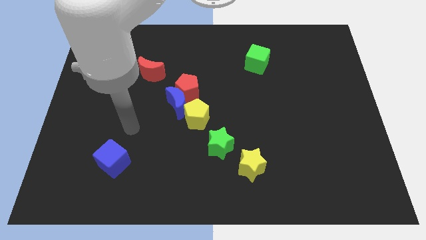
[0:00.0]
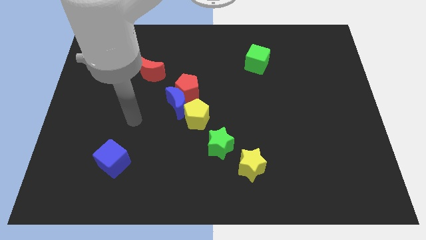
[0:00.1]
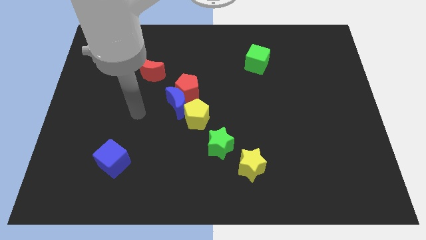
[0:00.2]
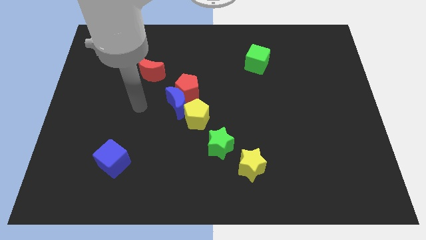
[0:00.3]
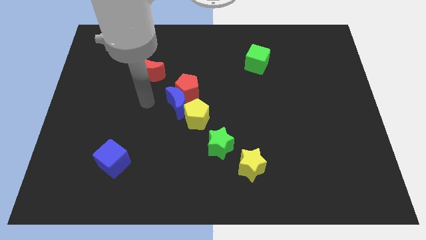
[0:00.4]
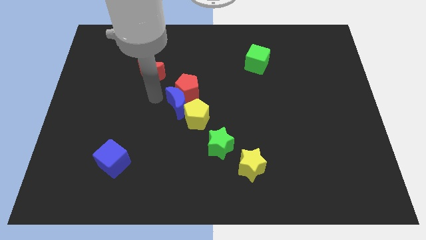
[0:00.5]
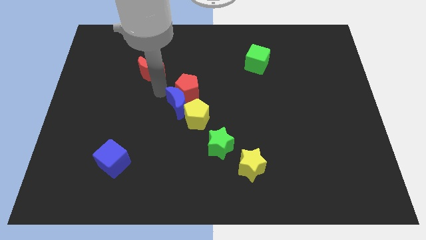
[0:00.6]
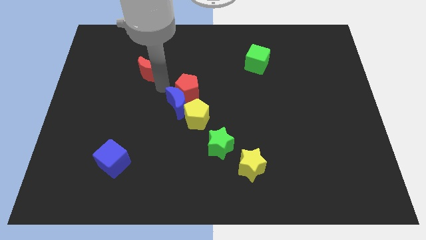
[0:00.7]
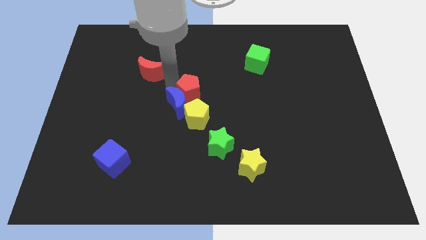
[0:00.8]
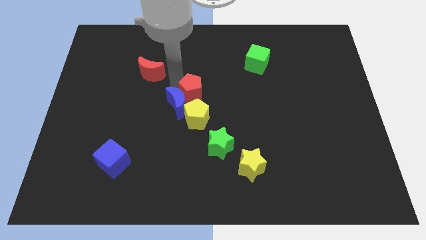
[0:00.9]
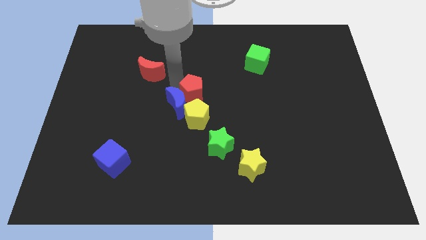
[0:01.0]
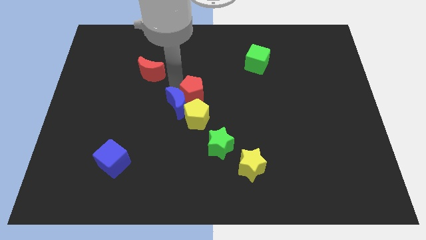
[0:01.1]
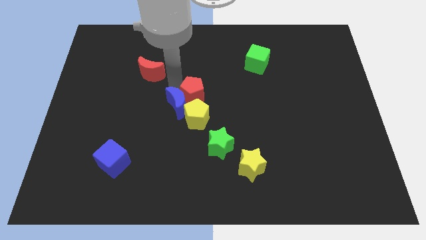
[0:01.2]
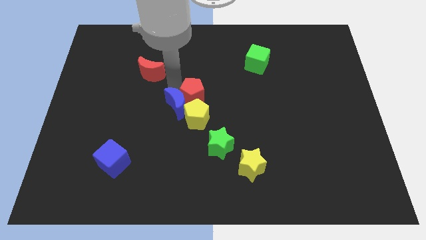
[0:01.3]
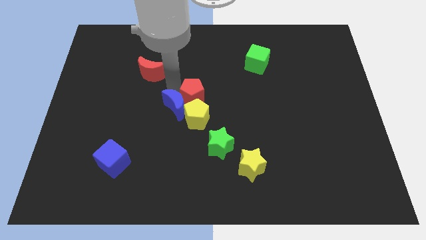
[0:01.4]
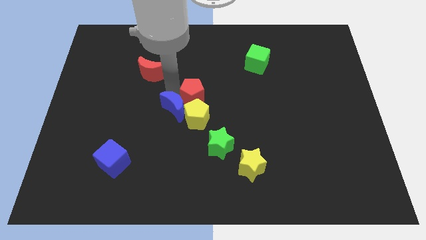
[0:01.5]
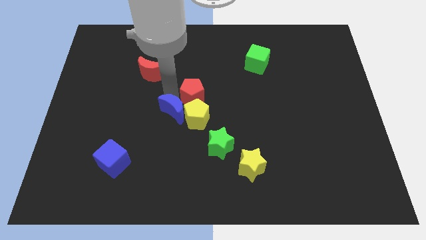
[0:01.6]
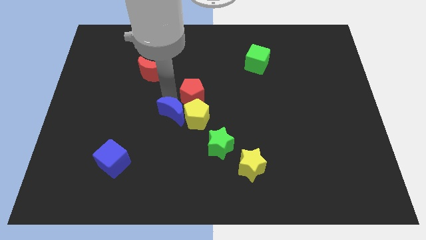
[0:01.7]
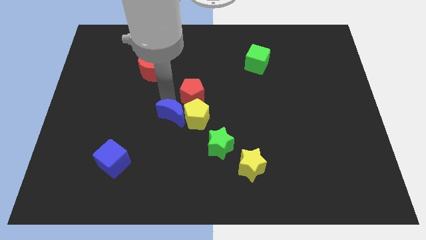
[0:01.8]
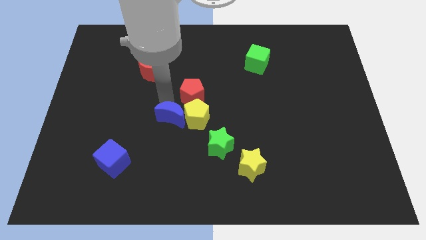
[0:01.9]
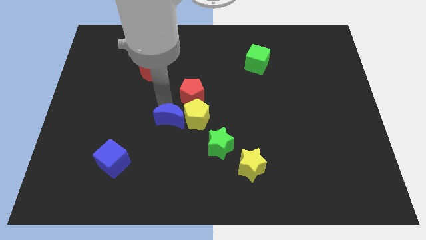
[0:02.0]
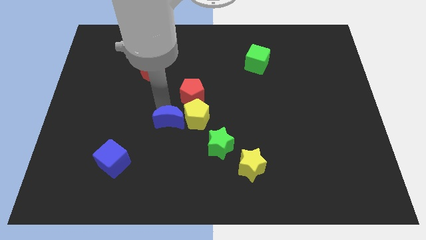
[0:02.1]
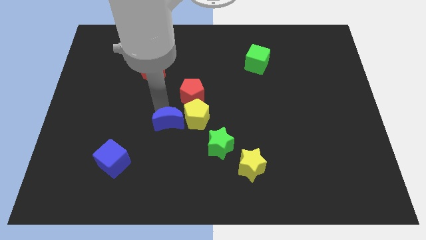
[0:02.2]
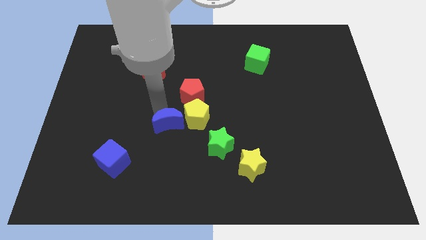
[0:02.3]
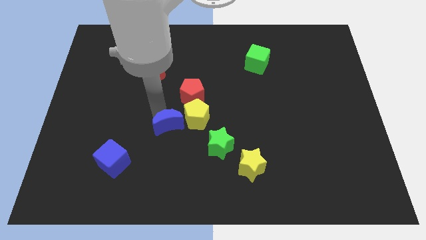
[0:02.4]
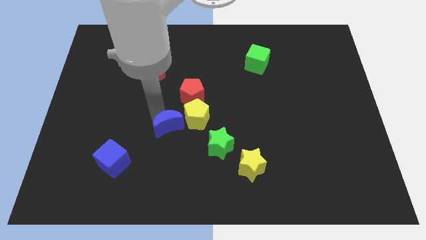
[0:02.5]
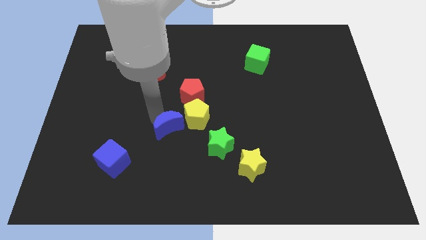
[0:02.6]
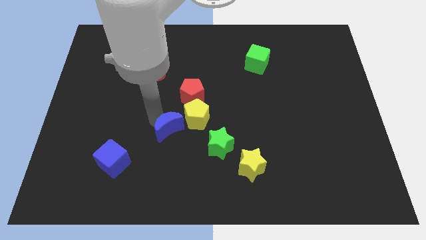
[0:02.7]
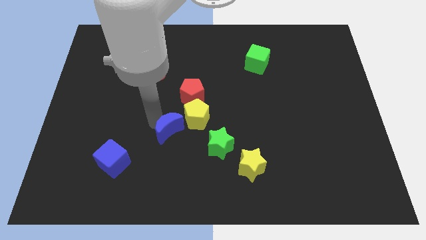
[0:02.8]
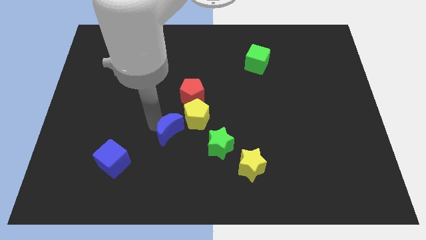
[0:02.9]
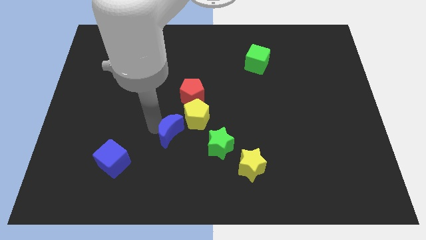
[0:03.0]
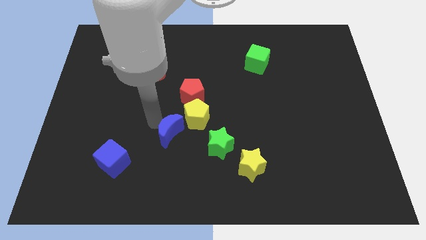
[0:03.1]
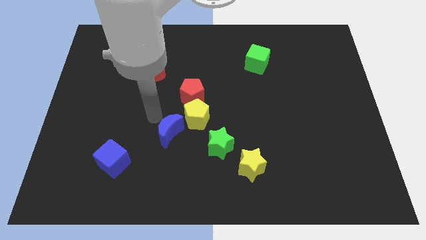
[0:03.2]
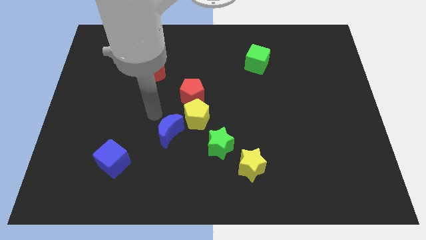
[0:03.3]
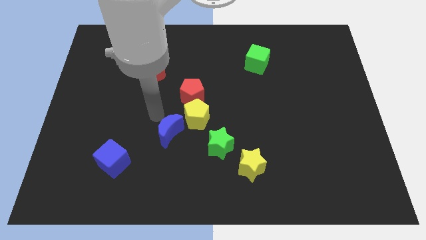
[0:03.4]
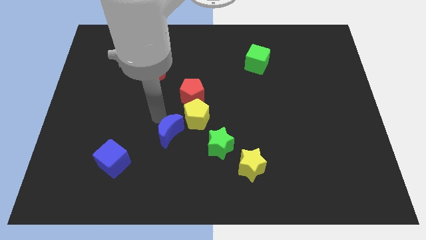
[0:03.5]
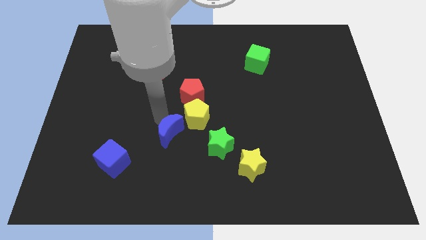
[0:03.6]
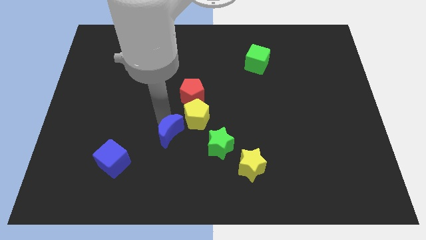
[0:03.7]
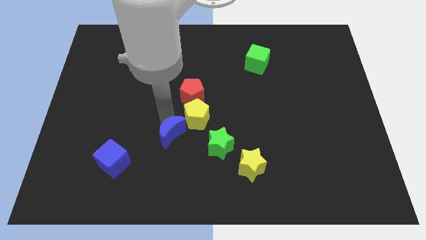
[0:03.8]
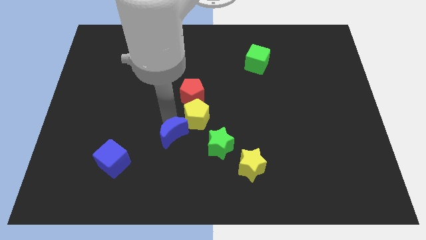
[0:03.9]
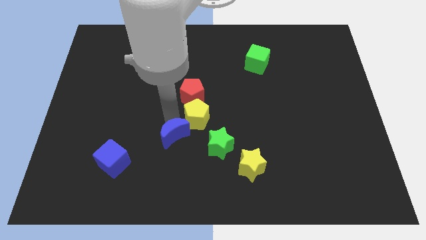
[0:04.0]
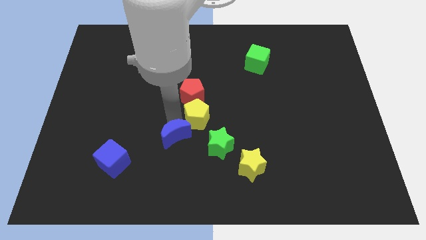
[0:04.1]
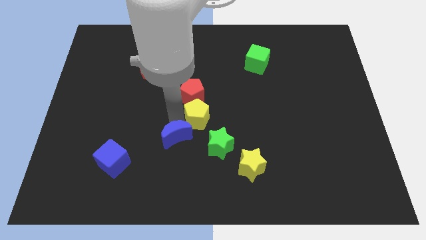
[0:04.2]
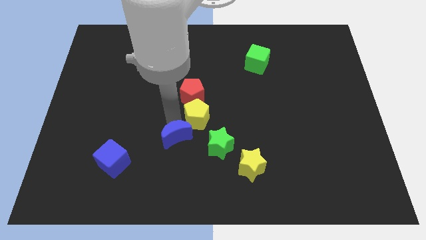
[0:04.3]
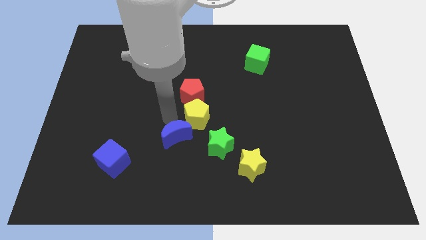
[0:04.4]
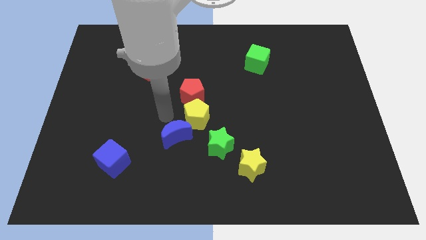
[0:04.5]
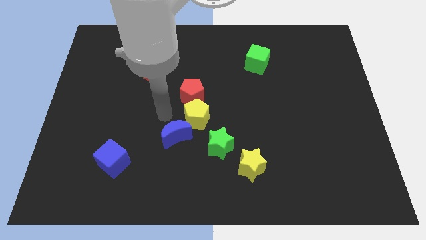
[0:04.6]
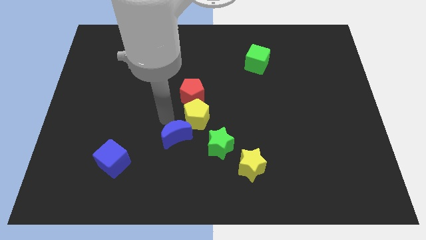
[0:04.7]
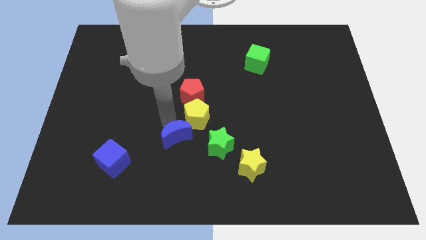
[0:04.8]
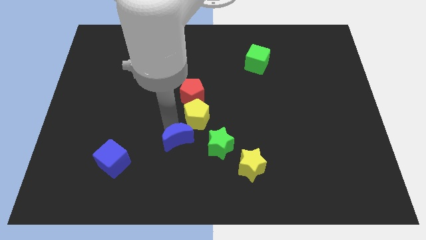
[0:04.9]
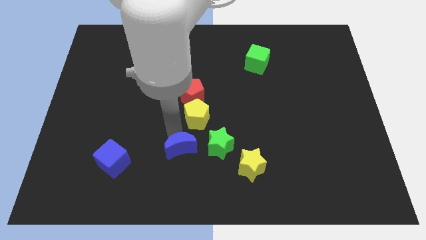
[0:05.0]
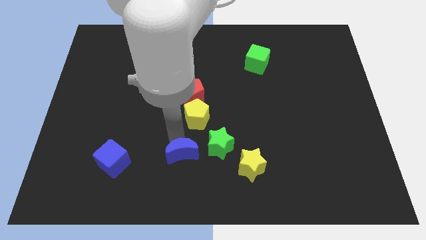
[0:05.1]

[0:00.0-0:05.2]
move the blue moon to the bottom left side of the green star

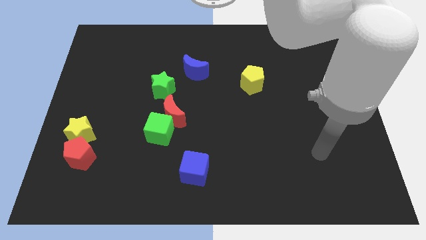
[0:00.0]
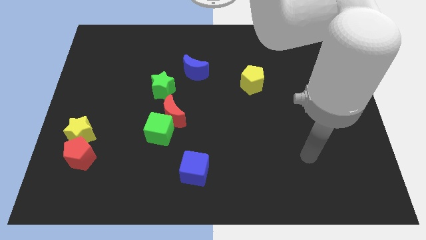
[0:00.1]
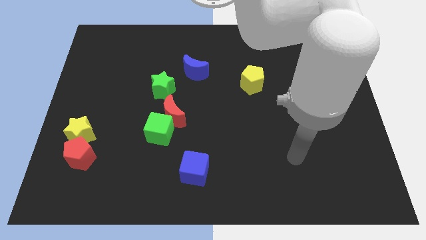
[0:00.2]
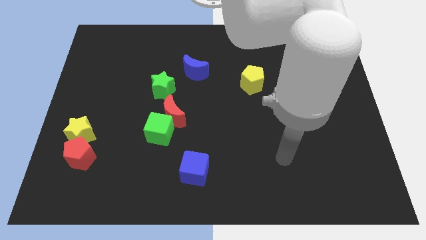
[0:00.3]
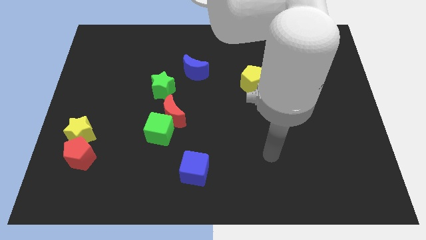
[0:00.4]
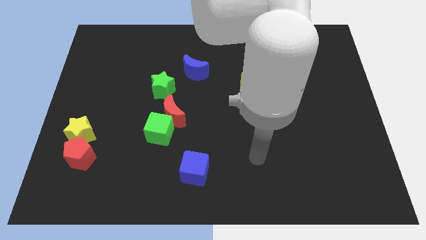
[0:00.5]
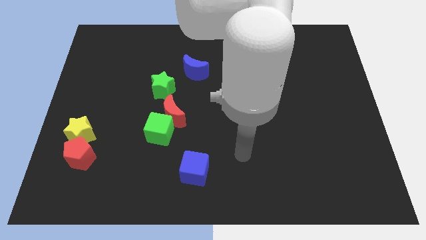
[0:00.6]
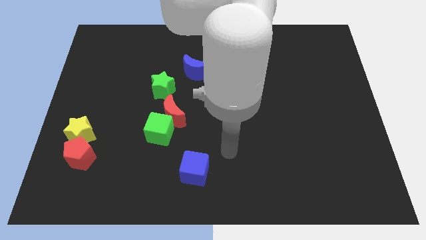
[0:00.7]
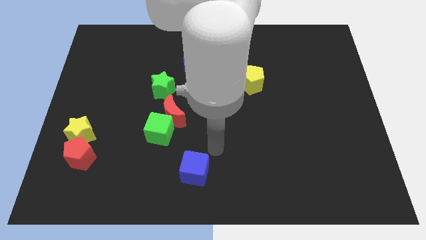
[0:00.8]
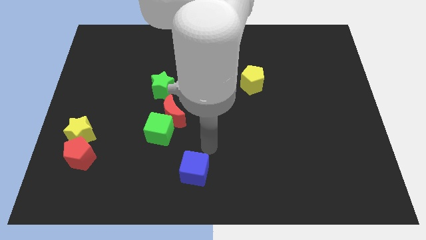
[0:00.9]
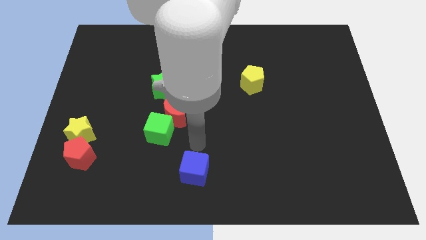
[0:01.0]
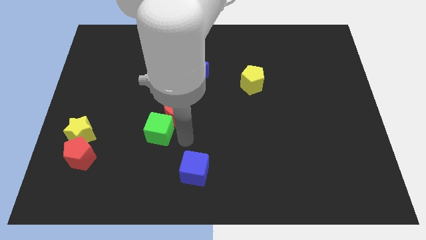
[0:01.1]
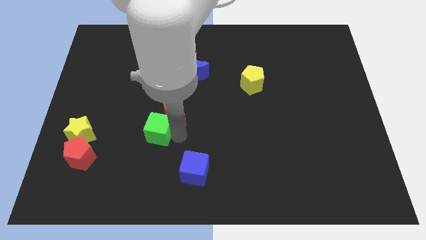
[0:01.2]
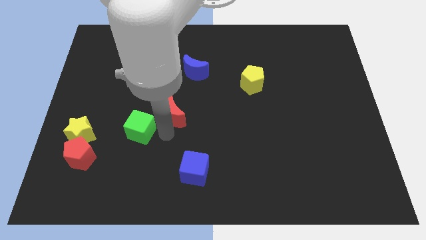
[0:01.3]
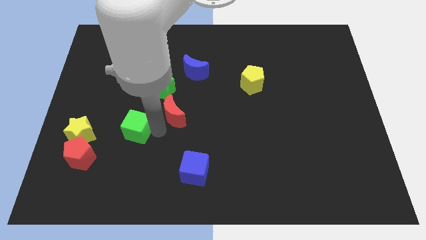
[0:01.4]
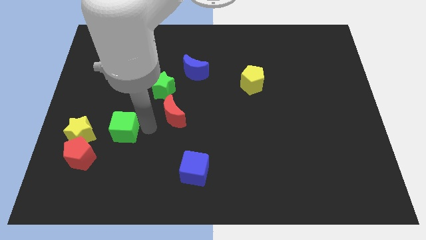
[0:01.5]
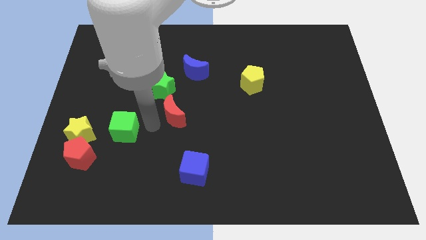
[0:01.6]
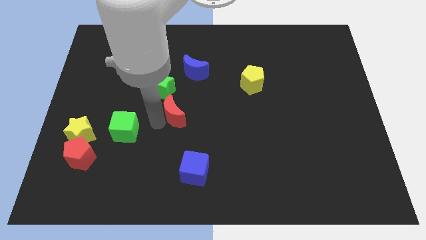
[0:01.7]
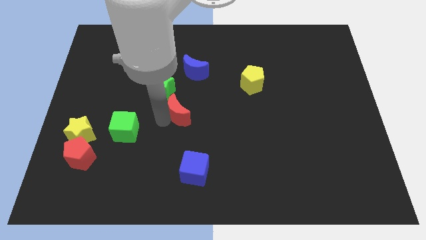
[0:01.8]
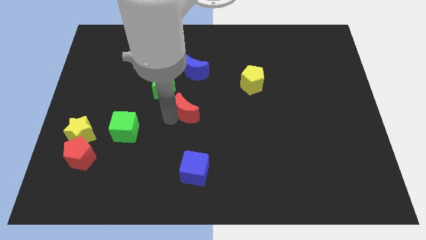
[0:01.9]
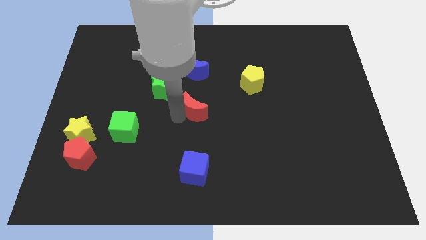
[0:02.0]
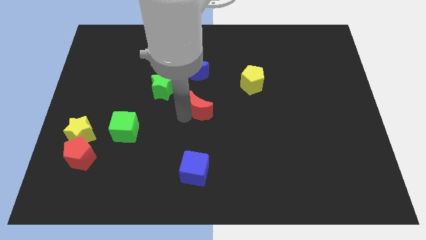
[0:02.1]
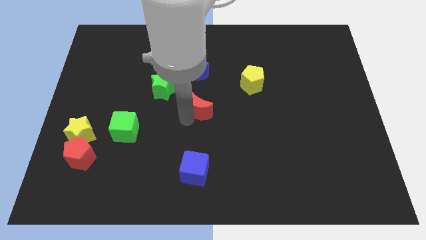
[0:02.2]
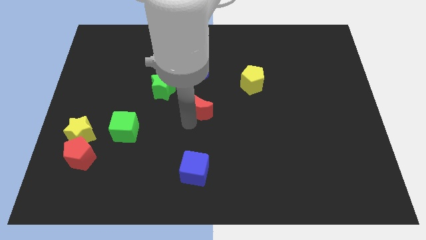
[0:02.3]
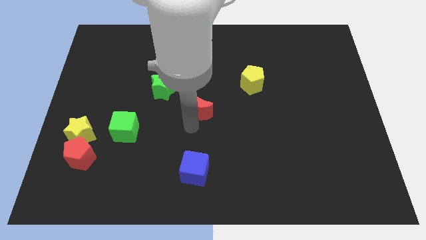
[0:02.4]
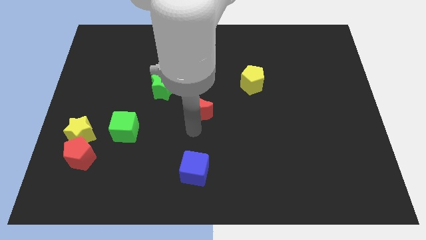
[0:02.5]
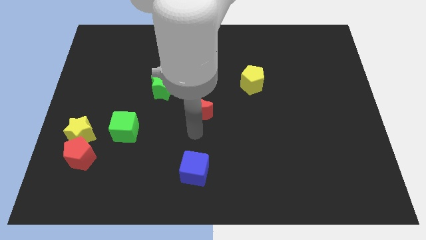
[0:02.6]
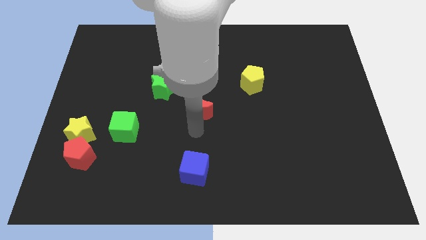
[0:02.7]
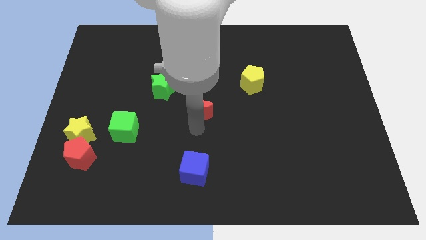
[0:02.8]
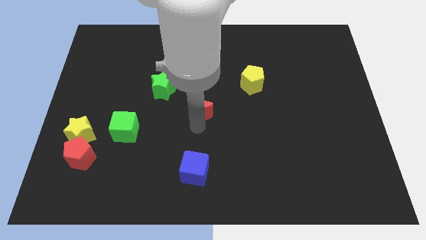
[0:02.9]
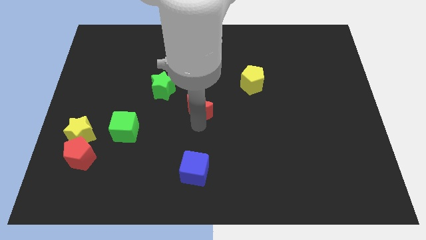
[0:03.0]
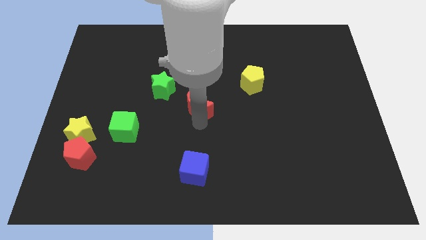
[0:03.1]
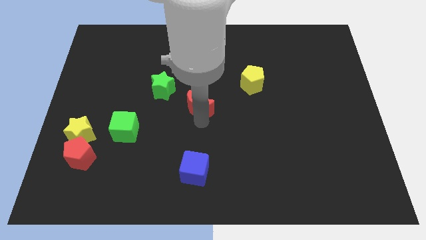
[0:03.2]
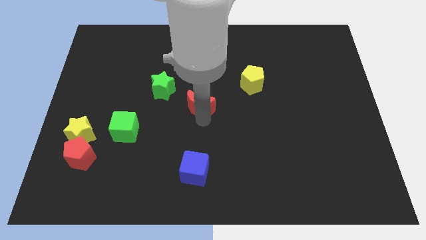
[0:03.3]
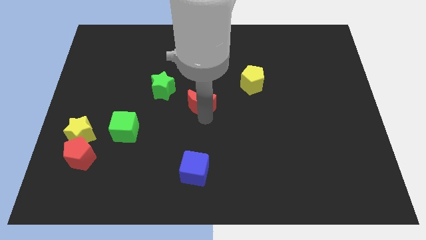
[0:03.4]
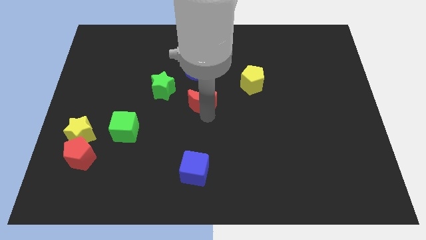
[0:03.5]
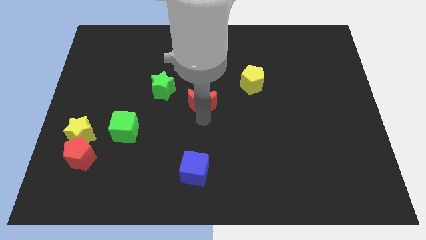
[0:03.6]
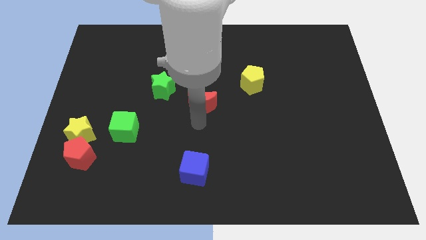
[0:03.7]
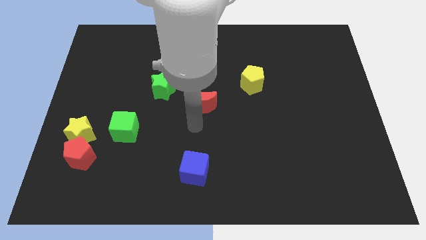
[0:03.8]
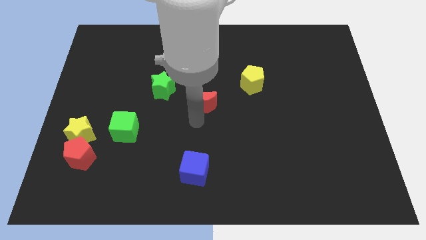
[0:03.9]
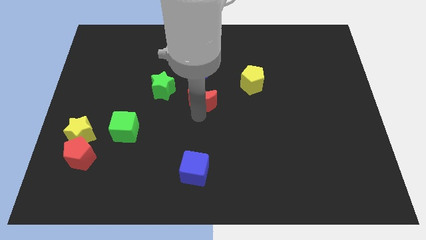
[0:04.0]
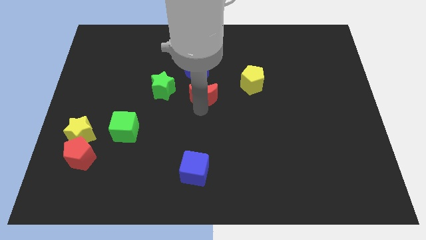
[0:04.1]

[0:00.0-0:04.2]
move the red moon just left of the yellow pentagon
